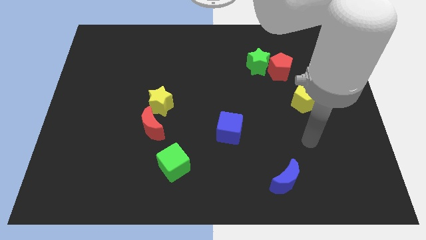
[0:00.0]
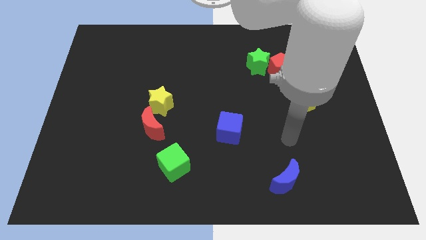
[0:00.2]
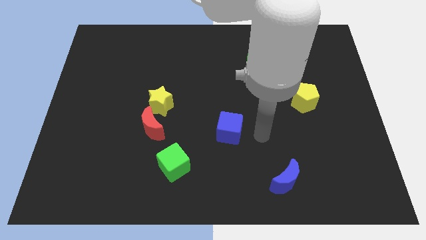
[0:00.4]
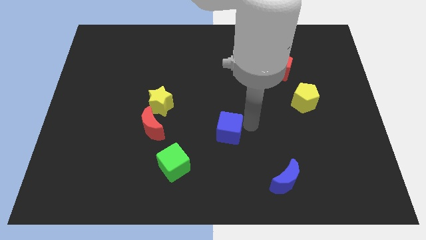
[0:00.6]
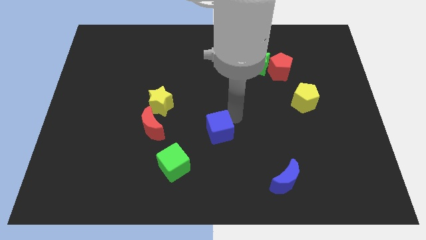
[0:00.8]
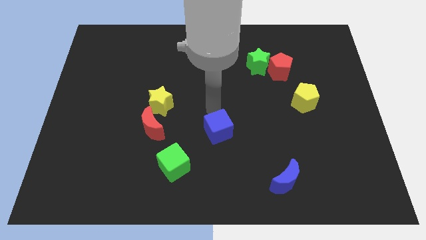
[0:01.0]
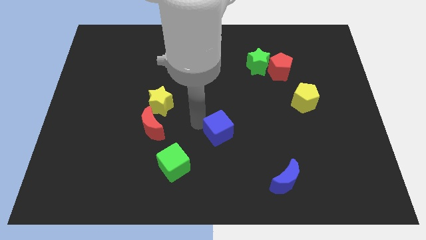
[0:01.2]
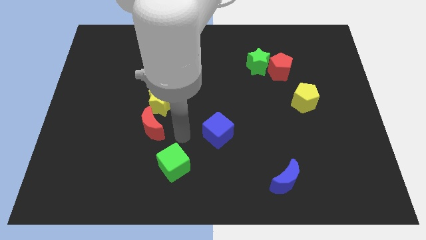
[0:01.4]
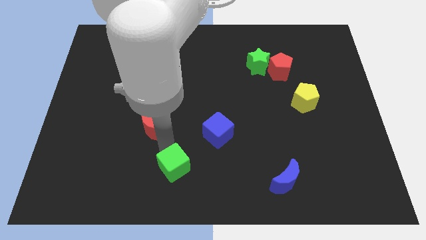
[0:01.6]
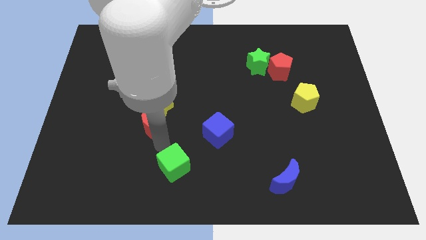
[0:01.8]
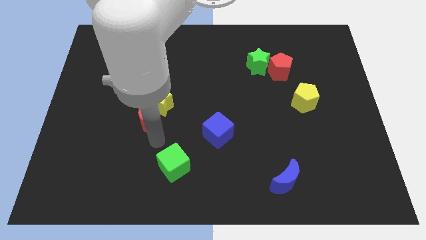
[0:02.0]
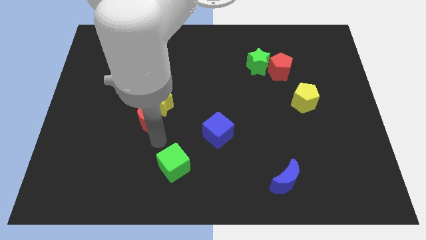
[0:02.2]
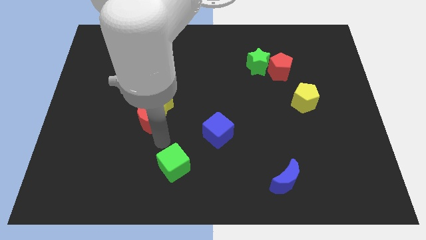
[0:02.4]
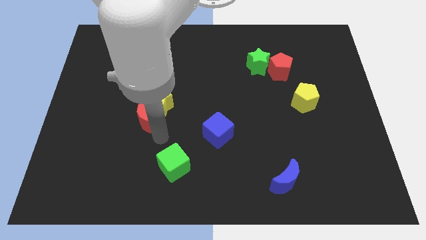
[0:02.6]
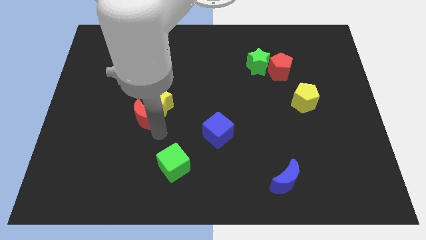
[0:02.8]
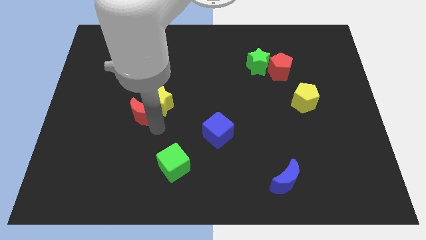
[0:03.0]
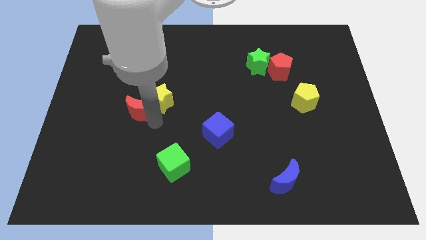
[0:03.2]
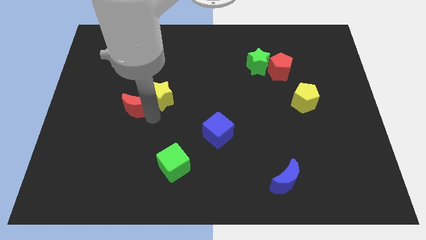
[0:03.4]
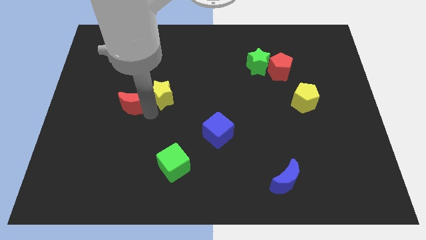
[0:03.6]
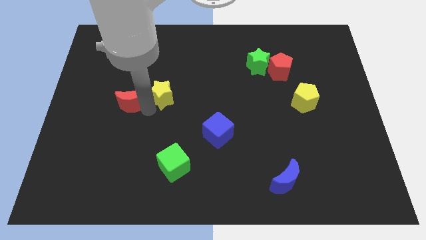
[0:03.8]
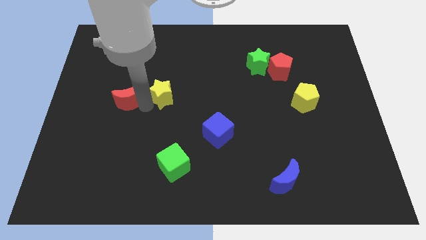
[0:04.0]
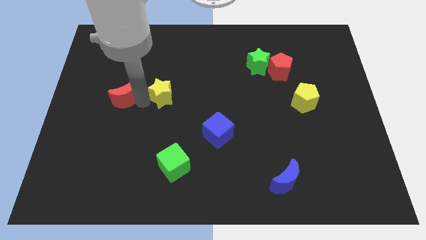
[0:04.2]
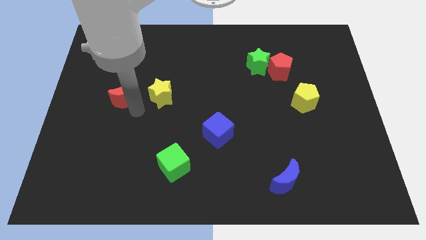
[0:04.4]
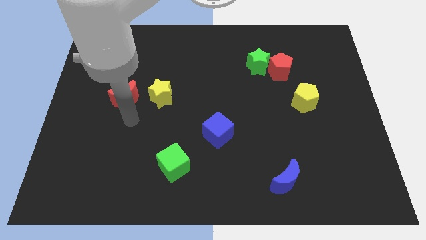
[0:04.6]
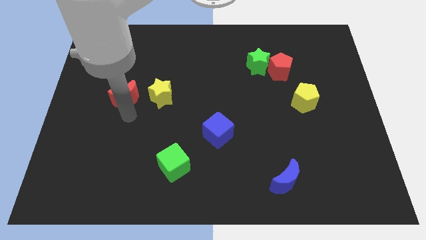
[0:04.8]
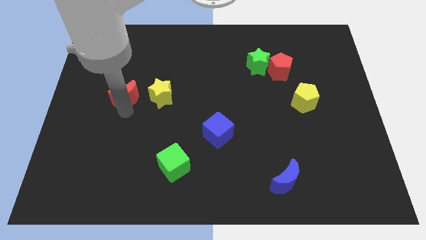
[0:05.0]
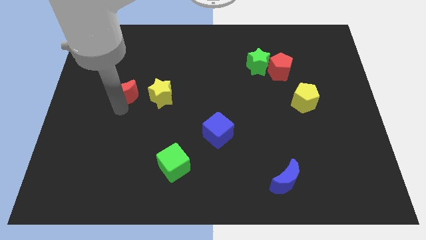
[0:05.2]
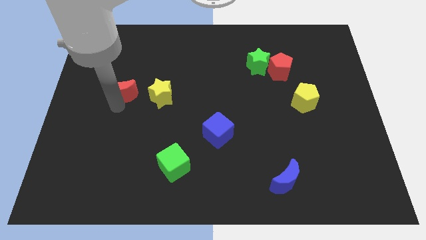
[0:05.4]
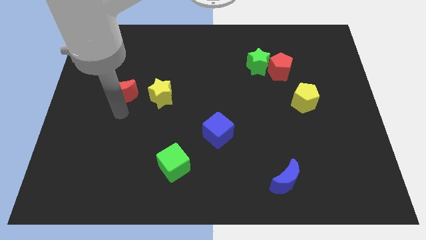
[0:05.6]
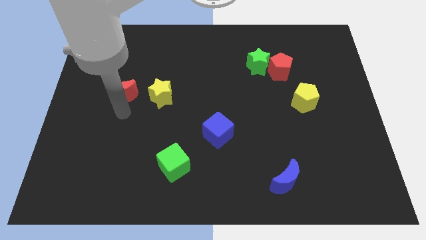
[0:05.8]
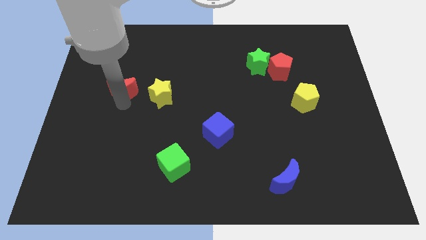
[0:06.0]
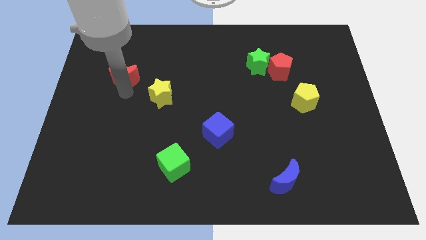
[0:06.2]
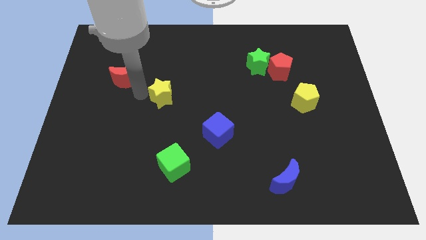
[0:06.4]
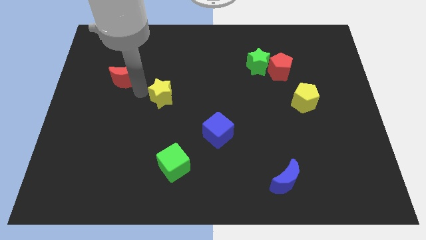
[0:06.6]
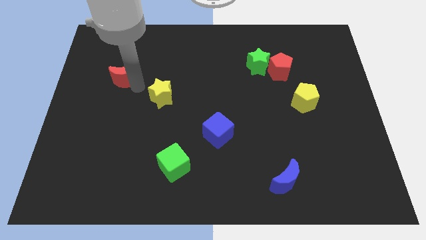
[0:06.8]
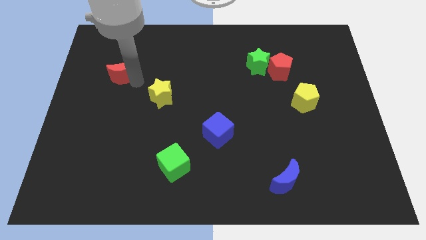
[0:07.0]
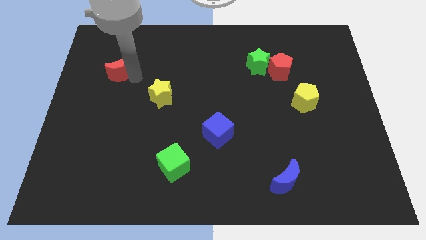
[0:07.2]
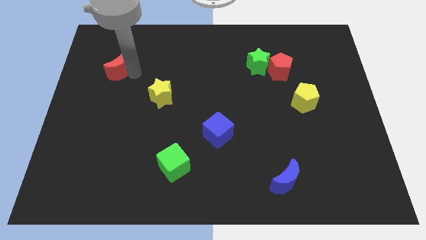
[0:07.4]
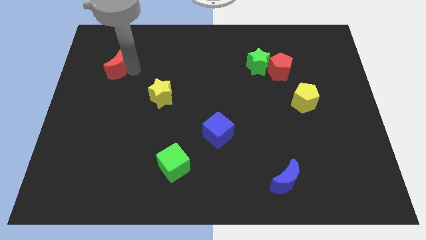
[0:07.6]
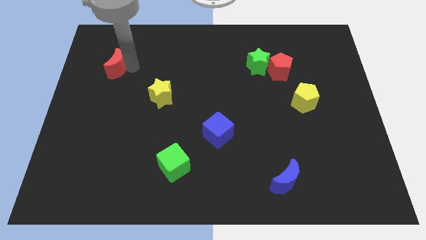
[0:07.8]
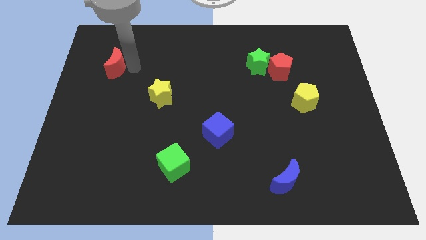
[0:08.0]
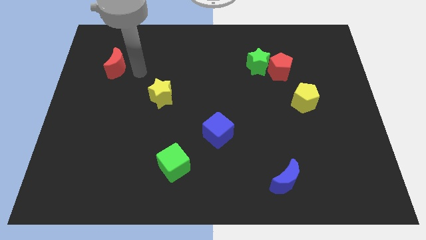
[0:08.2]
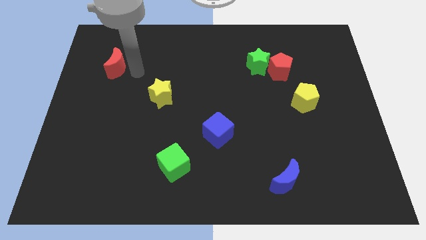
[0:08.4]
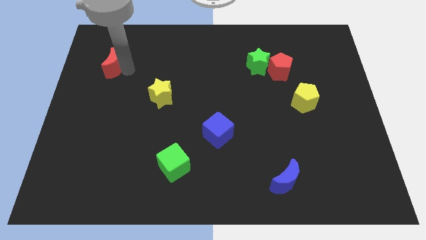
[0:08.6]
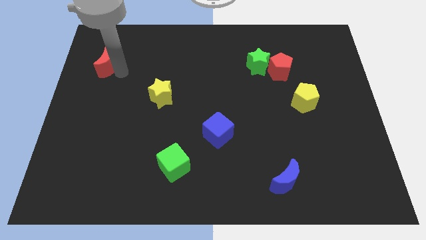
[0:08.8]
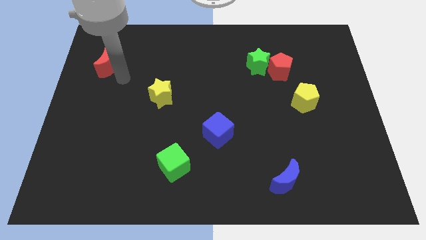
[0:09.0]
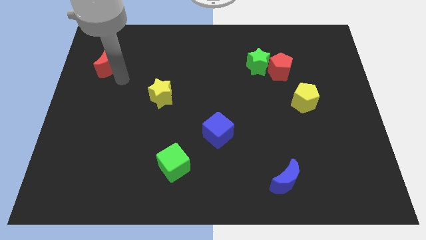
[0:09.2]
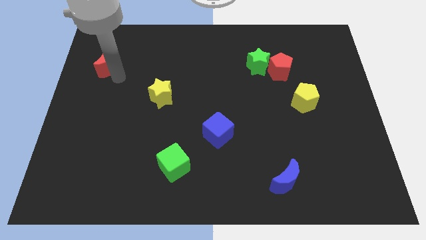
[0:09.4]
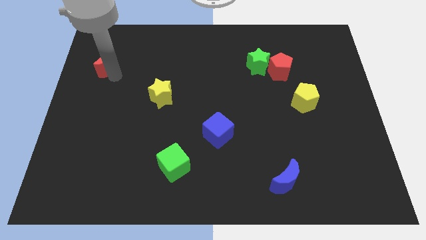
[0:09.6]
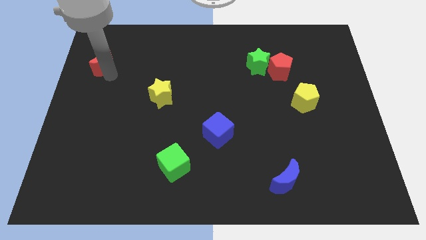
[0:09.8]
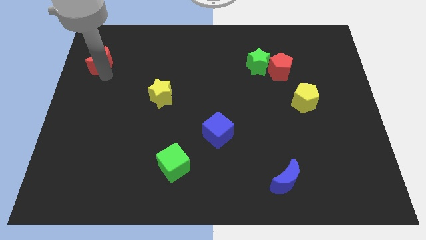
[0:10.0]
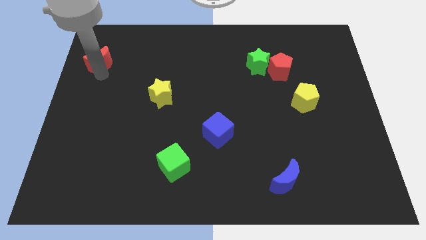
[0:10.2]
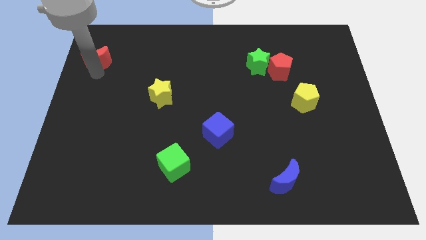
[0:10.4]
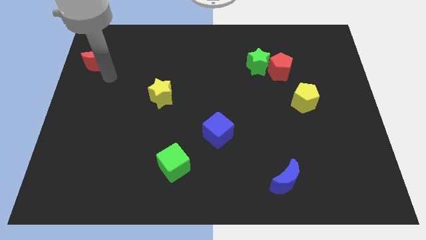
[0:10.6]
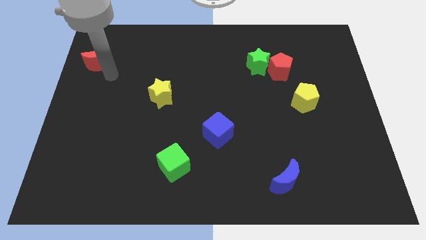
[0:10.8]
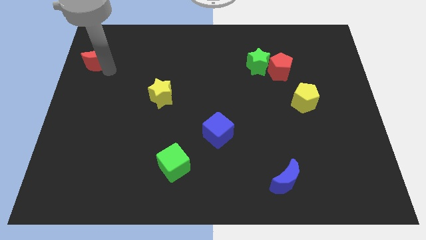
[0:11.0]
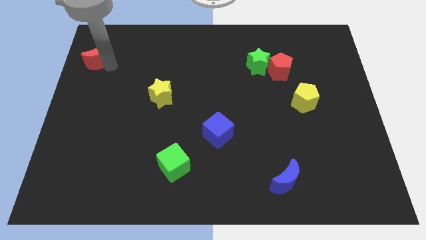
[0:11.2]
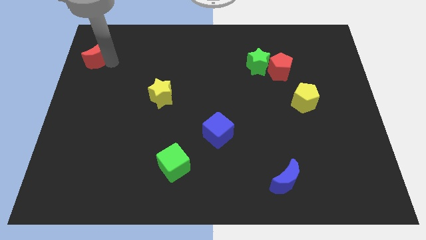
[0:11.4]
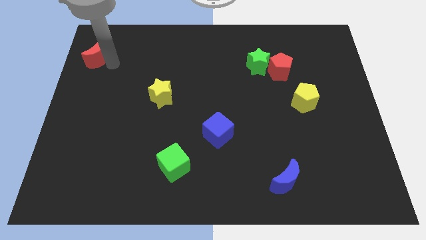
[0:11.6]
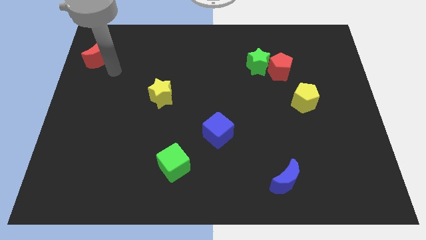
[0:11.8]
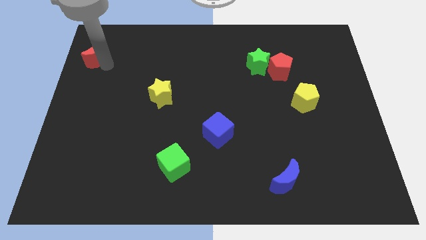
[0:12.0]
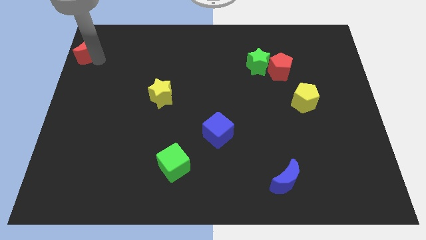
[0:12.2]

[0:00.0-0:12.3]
push the red moon to the upper left corner

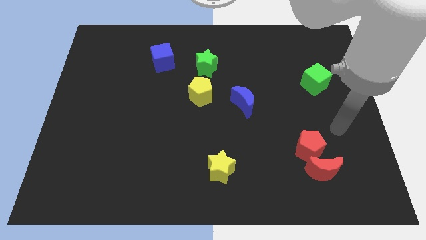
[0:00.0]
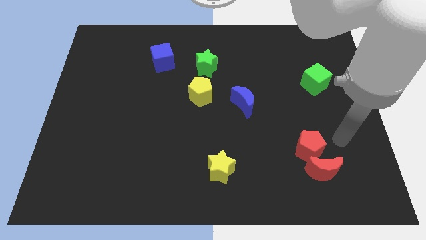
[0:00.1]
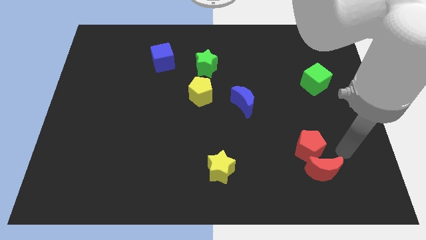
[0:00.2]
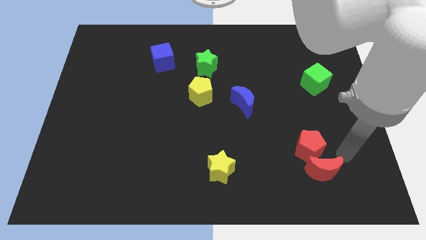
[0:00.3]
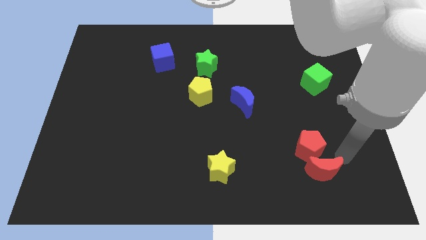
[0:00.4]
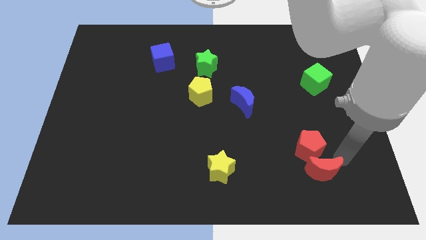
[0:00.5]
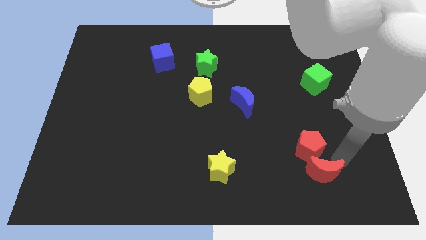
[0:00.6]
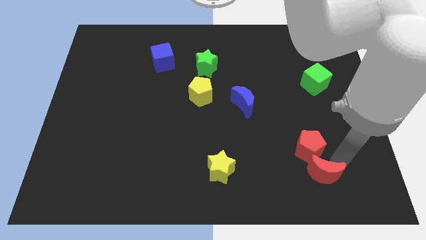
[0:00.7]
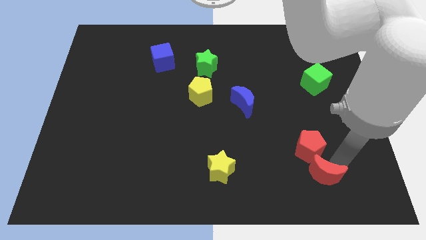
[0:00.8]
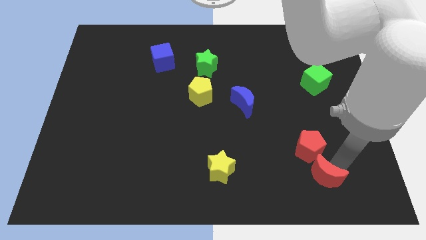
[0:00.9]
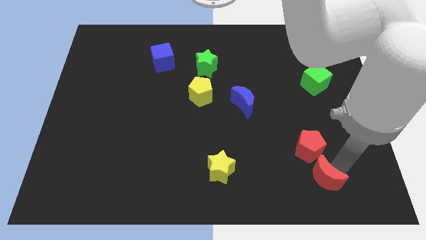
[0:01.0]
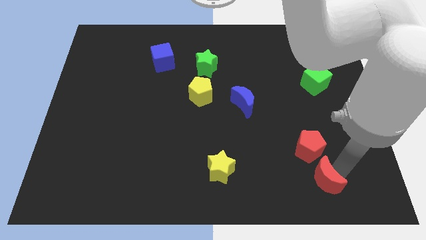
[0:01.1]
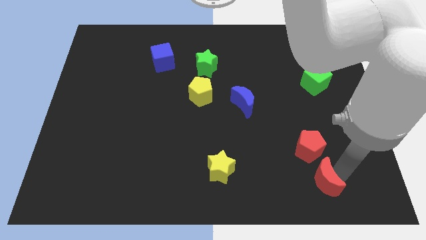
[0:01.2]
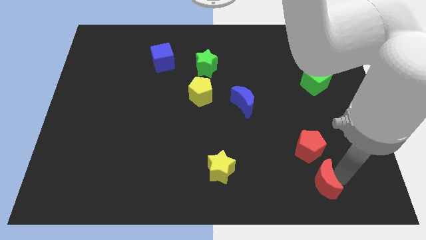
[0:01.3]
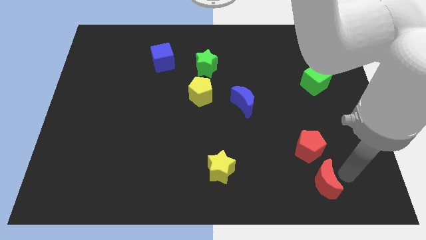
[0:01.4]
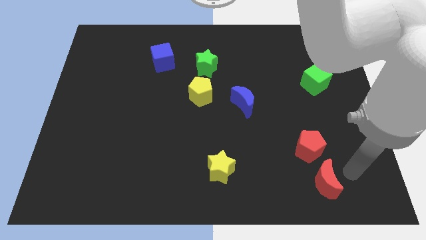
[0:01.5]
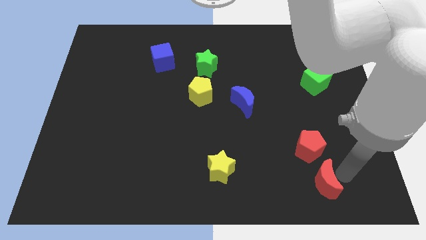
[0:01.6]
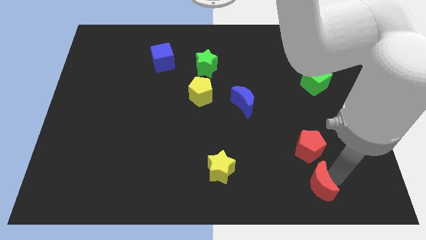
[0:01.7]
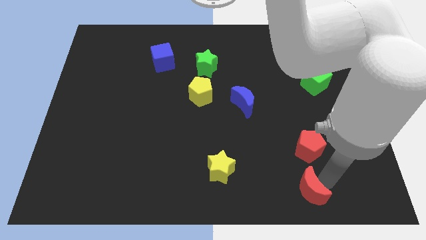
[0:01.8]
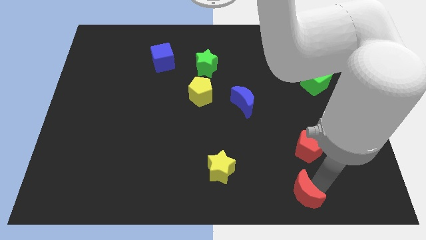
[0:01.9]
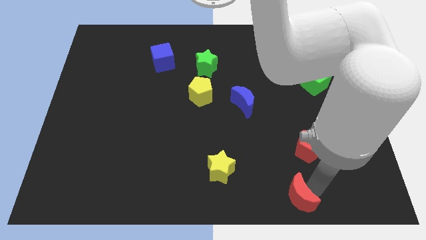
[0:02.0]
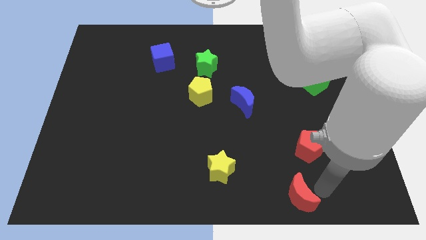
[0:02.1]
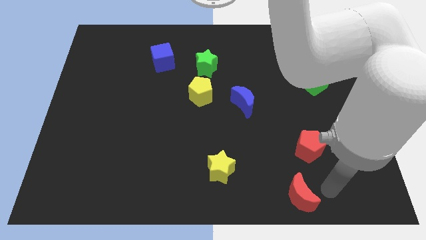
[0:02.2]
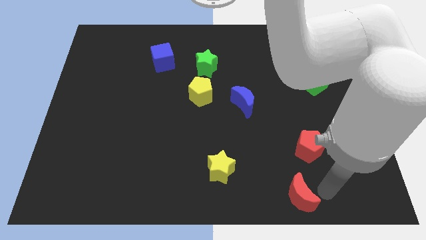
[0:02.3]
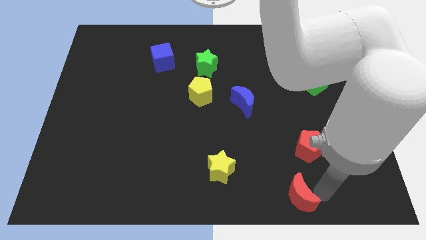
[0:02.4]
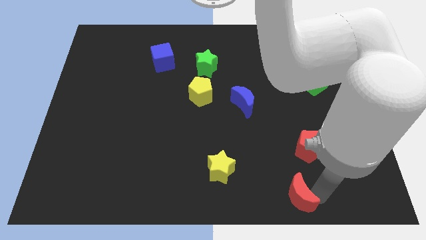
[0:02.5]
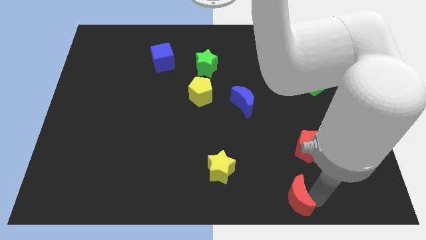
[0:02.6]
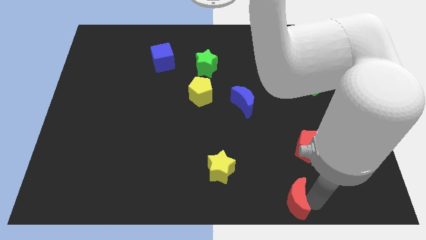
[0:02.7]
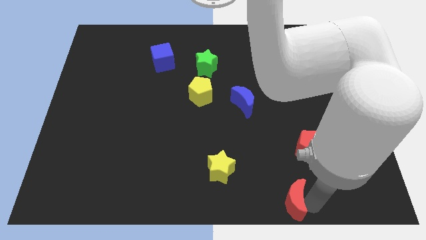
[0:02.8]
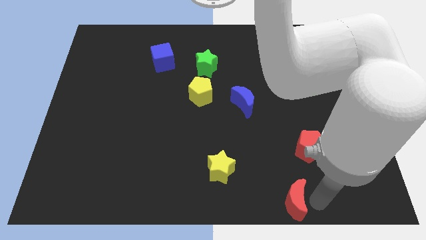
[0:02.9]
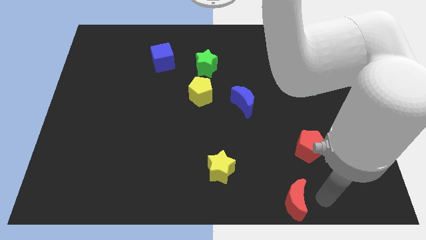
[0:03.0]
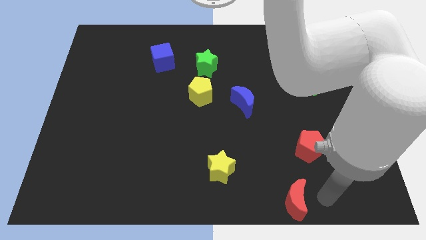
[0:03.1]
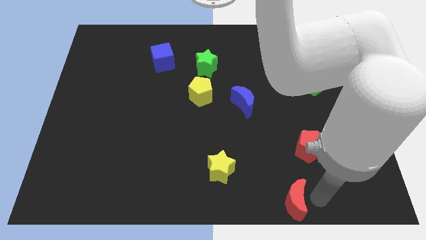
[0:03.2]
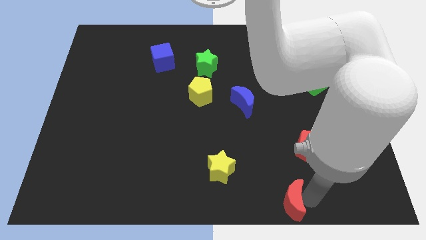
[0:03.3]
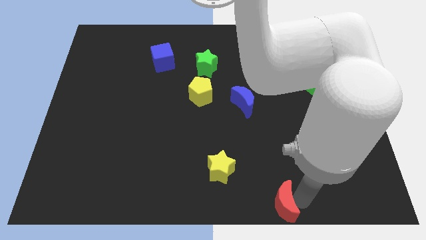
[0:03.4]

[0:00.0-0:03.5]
slide the red moon to the bottom side
